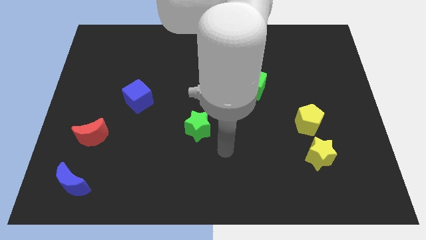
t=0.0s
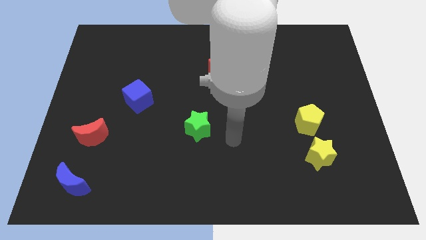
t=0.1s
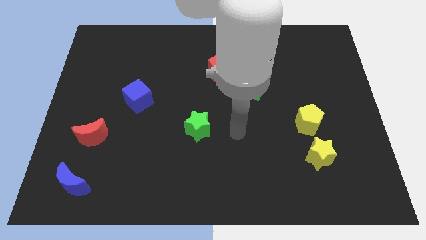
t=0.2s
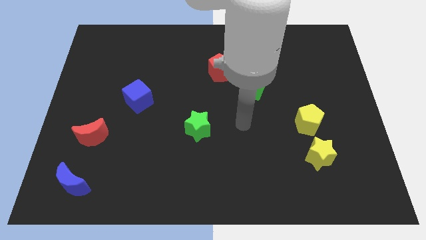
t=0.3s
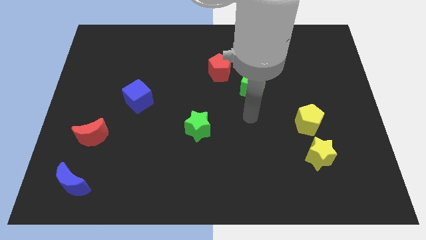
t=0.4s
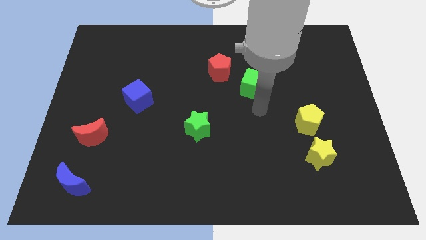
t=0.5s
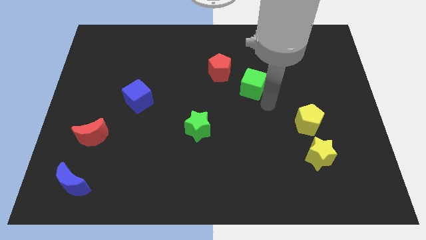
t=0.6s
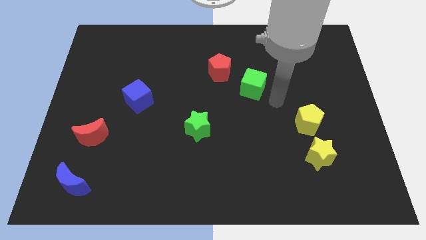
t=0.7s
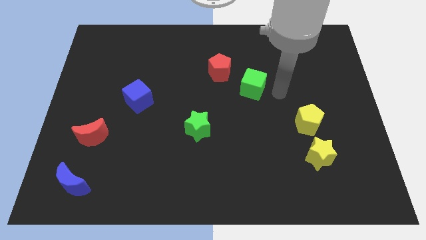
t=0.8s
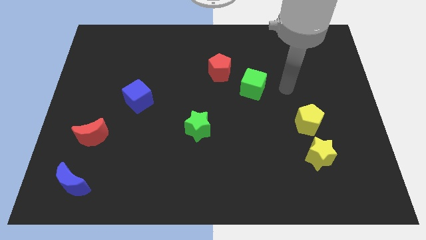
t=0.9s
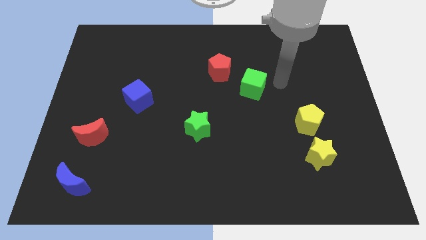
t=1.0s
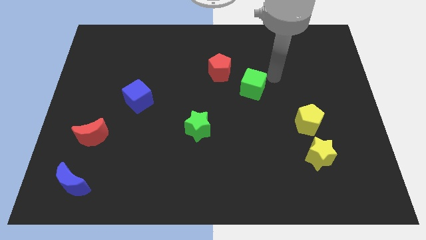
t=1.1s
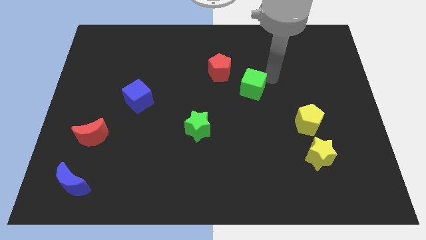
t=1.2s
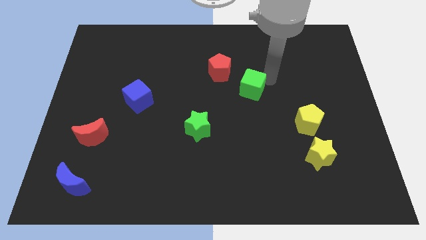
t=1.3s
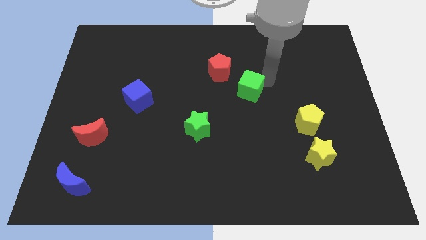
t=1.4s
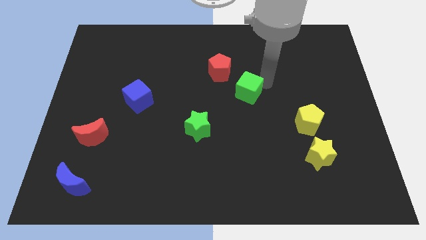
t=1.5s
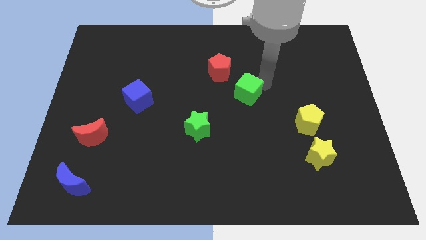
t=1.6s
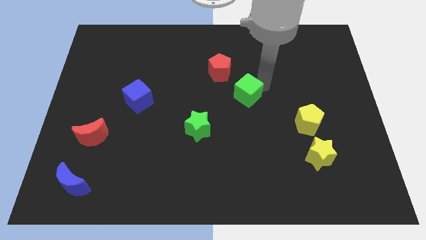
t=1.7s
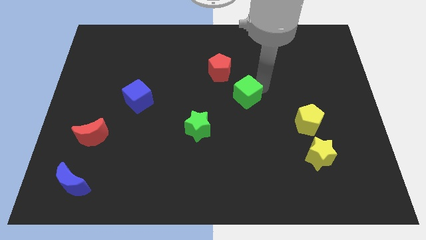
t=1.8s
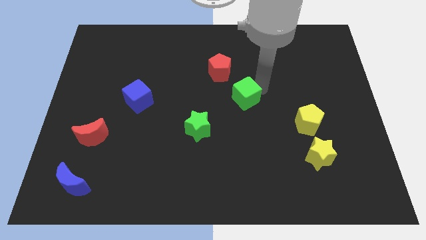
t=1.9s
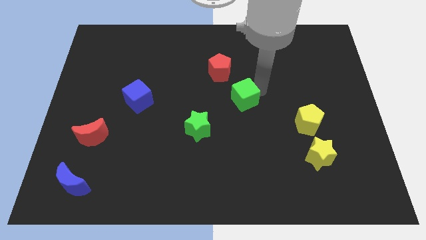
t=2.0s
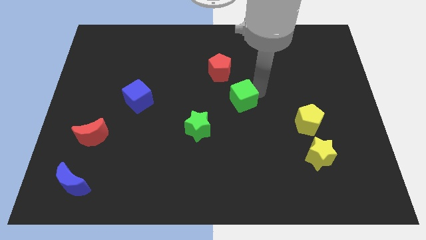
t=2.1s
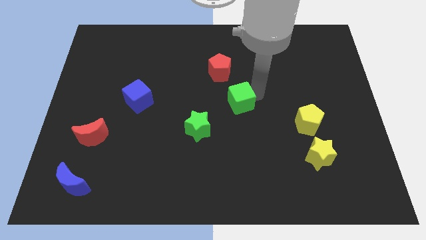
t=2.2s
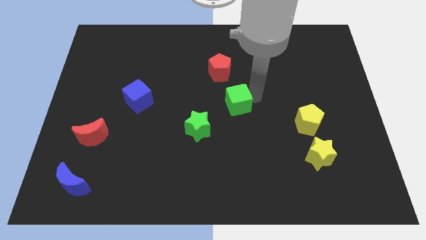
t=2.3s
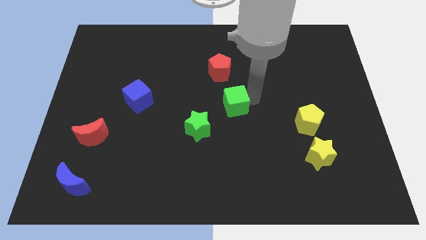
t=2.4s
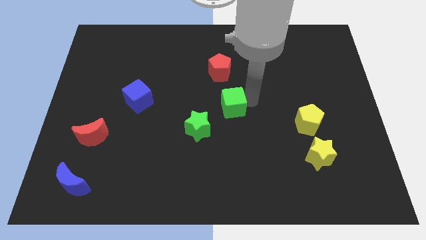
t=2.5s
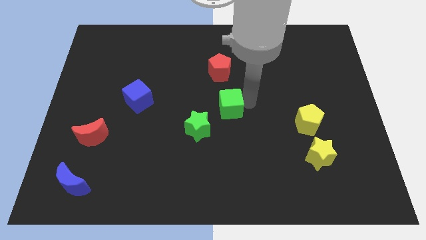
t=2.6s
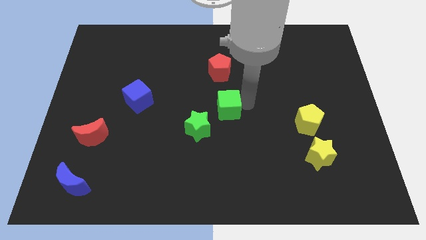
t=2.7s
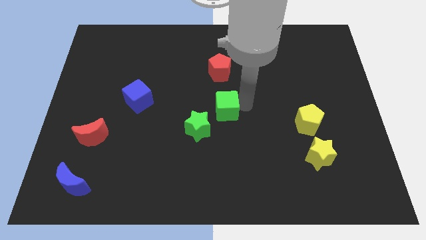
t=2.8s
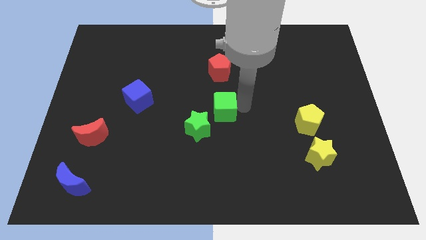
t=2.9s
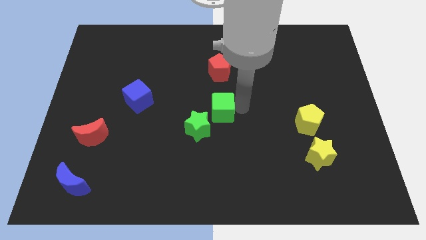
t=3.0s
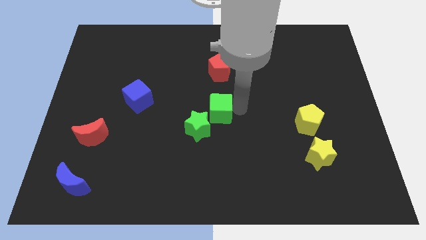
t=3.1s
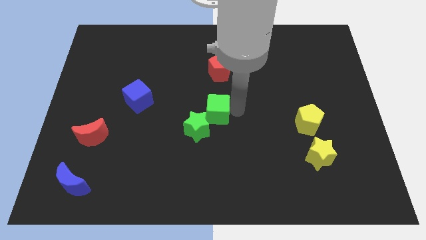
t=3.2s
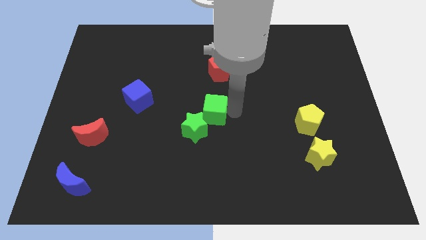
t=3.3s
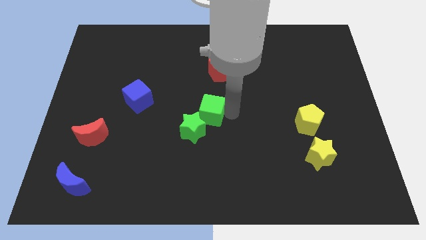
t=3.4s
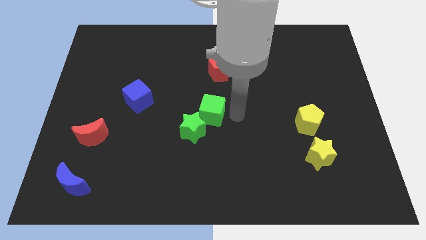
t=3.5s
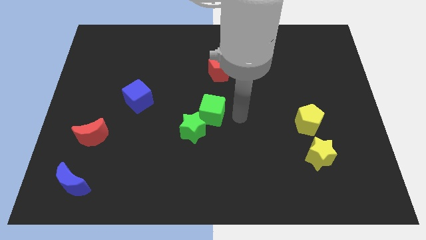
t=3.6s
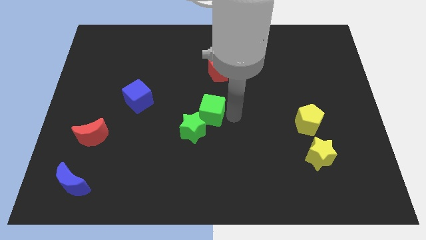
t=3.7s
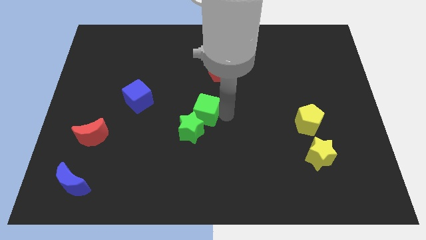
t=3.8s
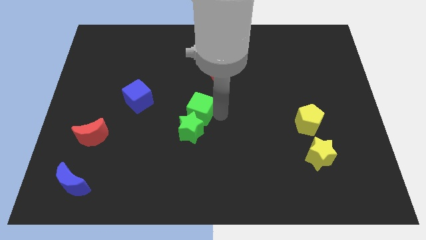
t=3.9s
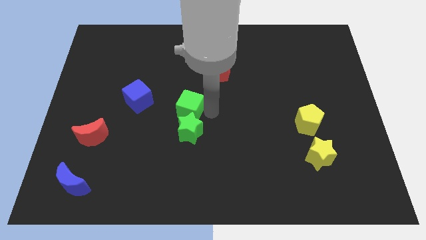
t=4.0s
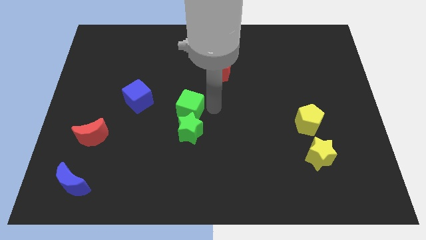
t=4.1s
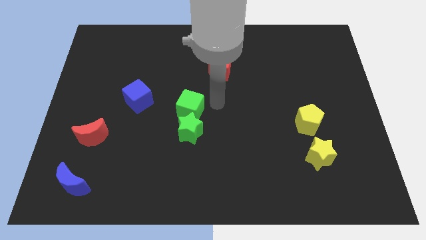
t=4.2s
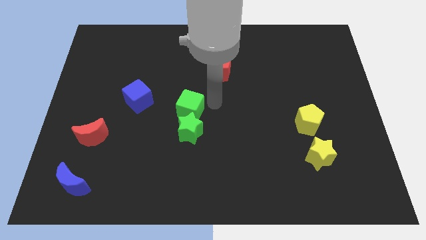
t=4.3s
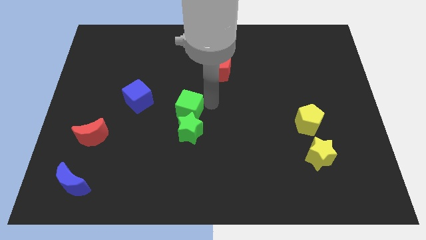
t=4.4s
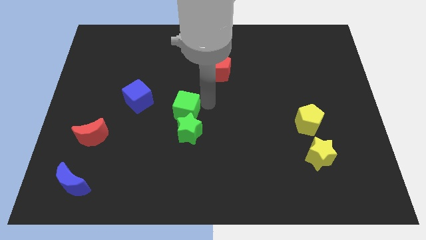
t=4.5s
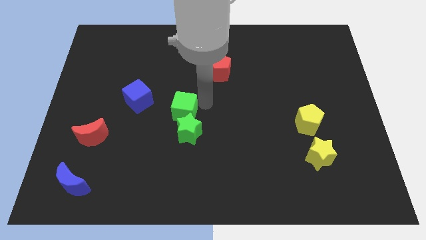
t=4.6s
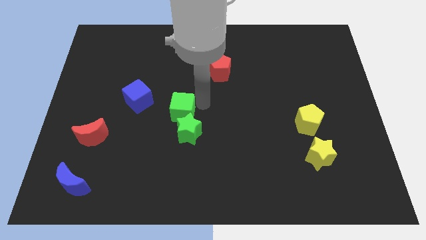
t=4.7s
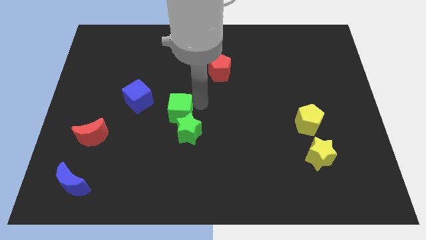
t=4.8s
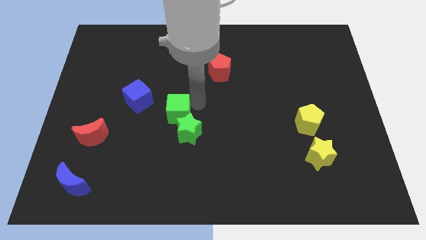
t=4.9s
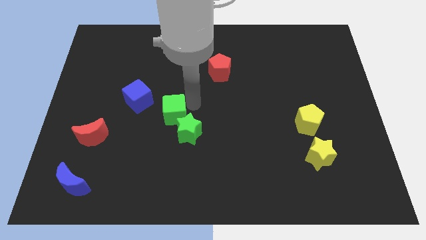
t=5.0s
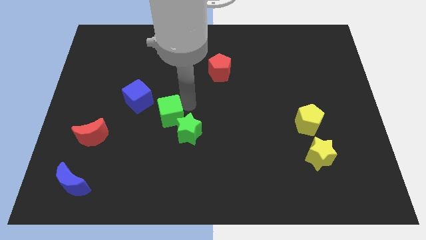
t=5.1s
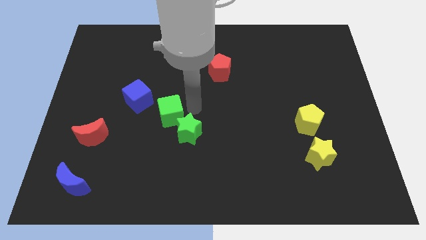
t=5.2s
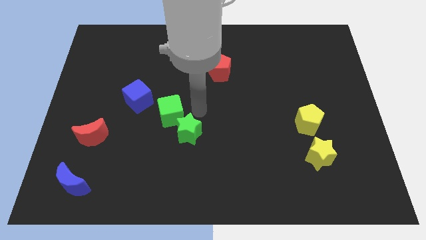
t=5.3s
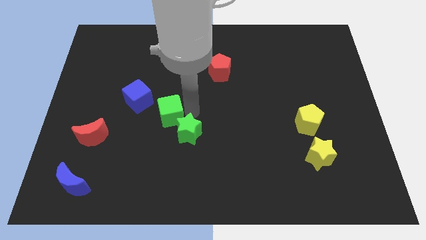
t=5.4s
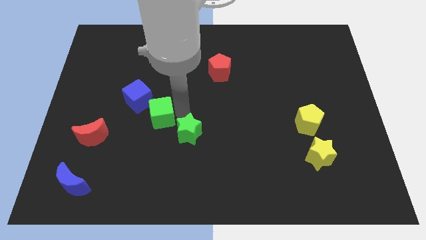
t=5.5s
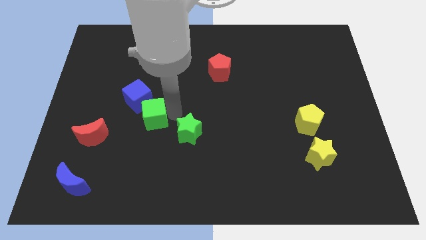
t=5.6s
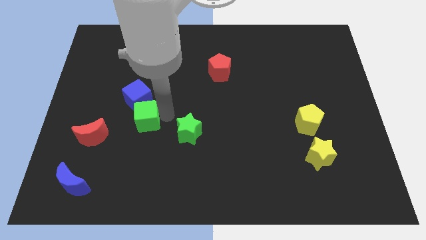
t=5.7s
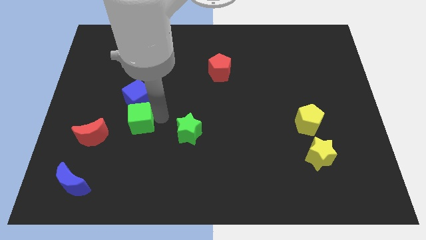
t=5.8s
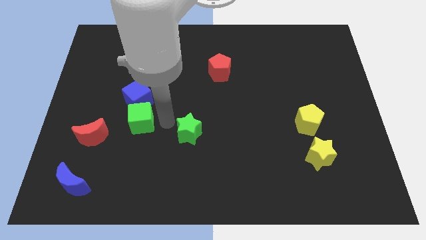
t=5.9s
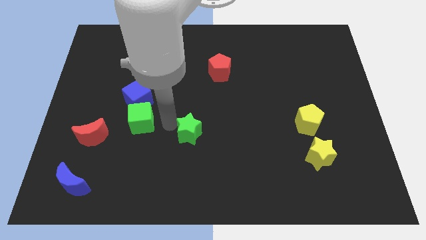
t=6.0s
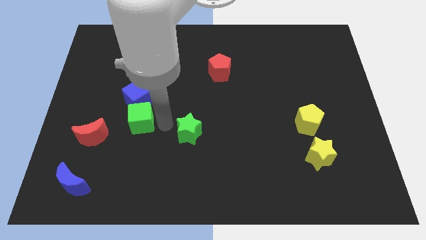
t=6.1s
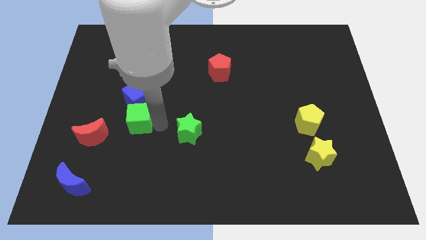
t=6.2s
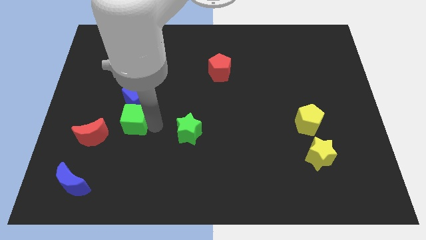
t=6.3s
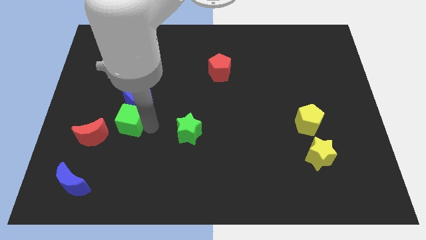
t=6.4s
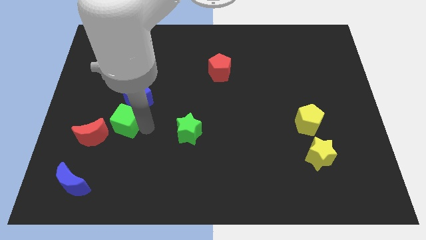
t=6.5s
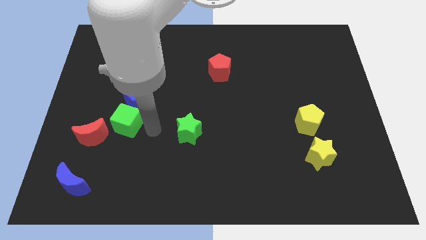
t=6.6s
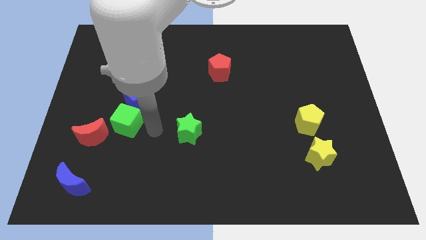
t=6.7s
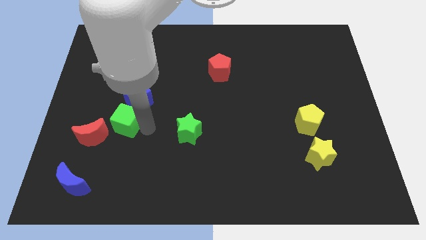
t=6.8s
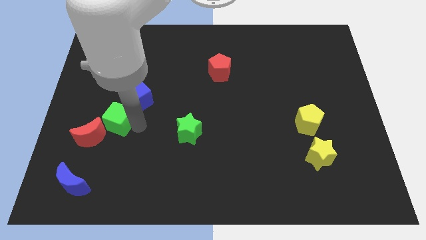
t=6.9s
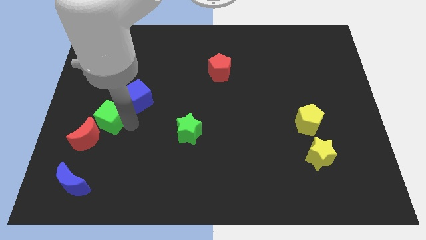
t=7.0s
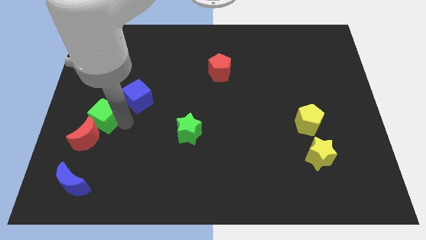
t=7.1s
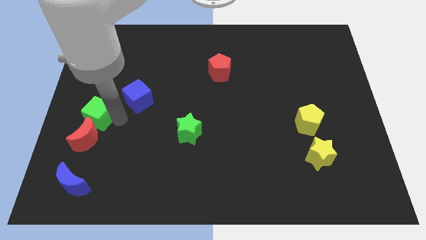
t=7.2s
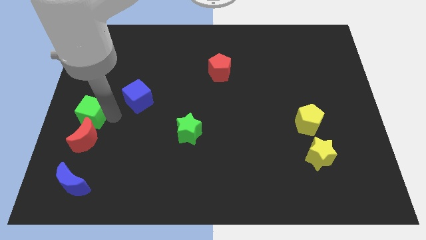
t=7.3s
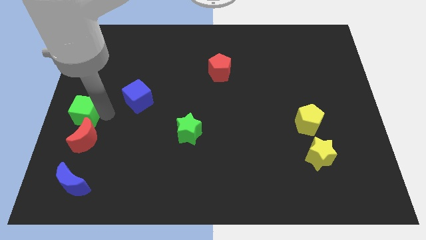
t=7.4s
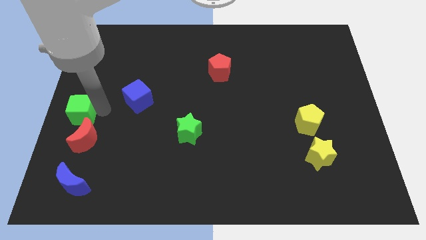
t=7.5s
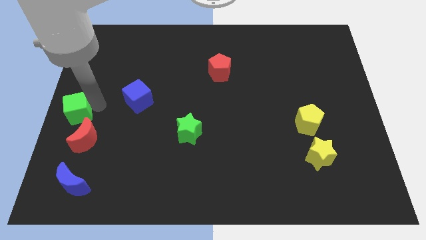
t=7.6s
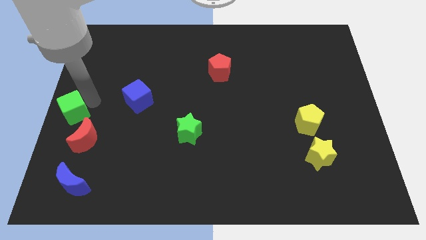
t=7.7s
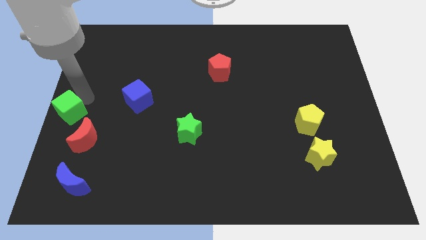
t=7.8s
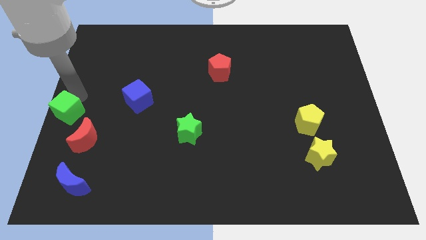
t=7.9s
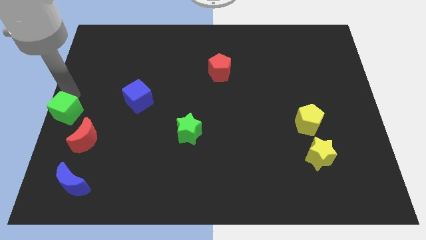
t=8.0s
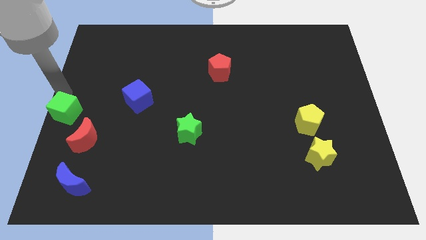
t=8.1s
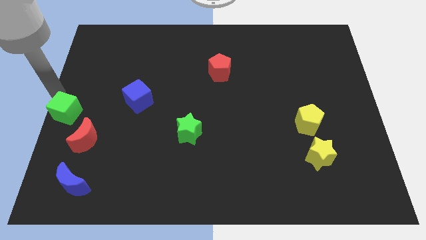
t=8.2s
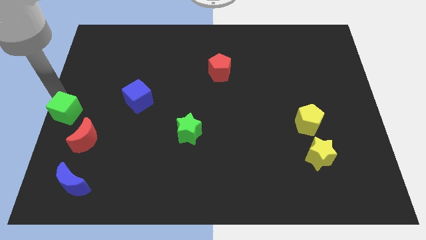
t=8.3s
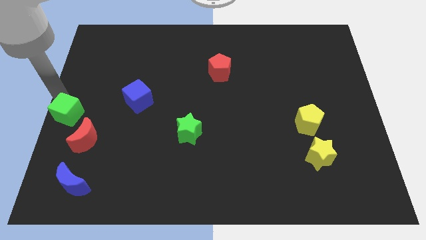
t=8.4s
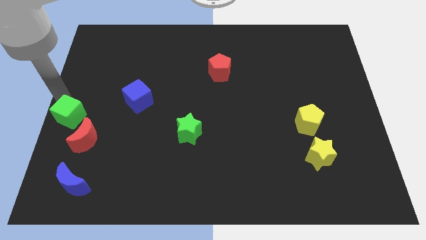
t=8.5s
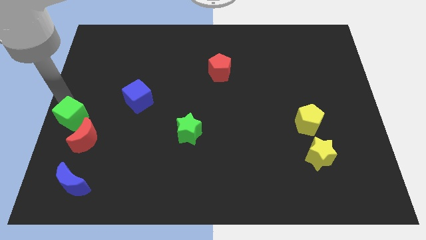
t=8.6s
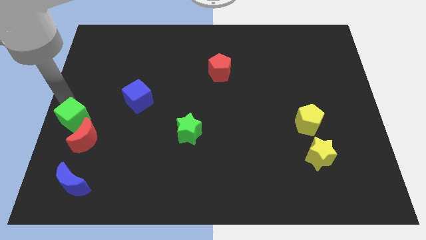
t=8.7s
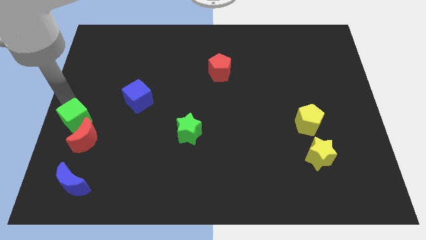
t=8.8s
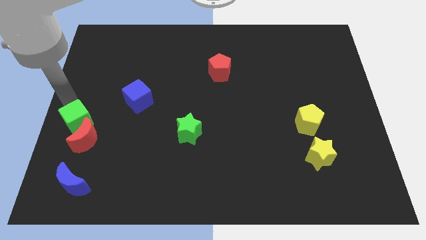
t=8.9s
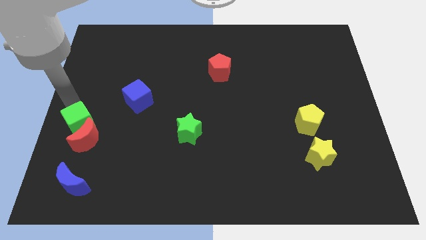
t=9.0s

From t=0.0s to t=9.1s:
push the green cube to the top of the blue moon
